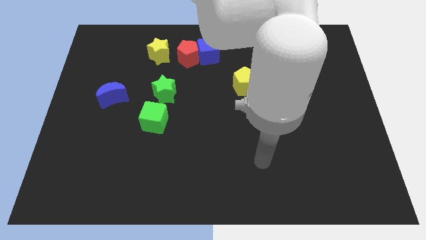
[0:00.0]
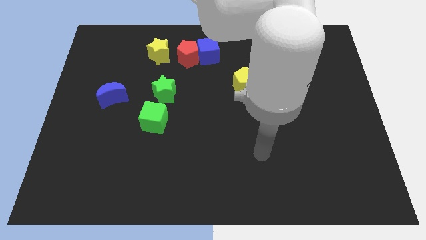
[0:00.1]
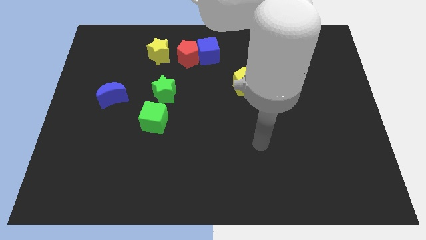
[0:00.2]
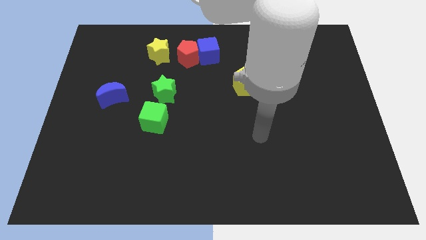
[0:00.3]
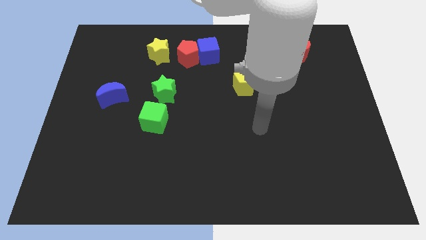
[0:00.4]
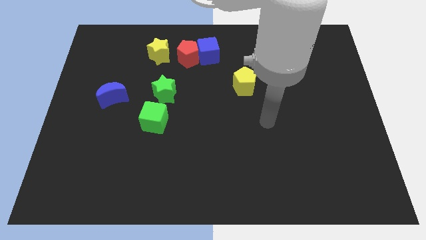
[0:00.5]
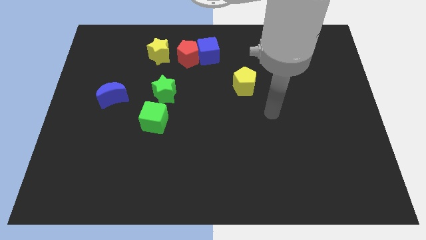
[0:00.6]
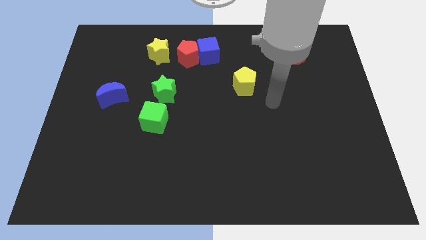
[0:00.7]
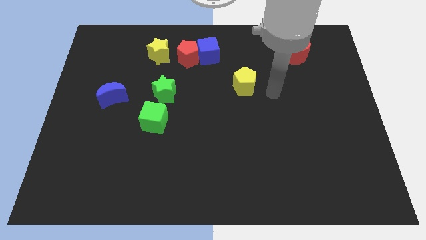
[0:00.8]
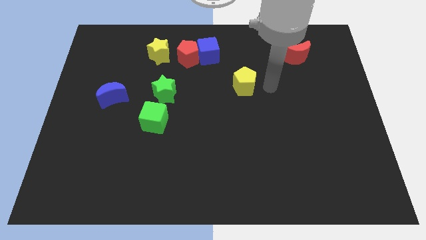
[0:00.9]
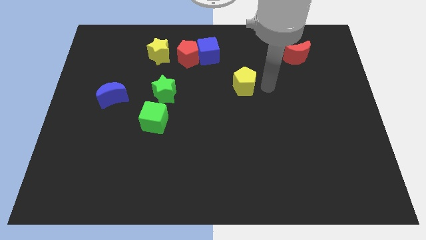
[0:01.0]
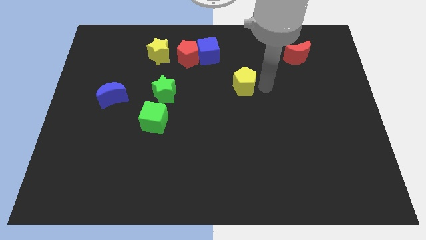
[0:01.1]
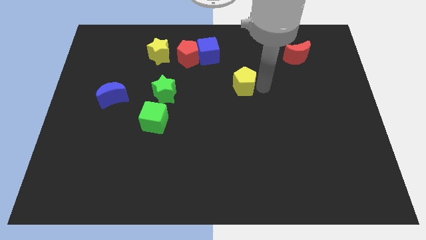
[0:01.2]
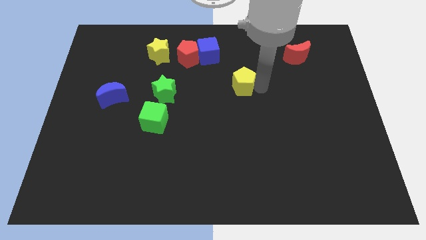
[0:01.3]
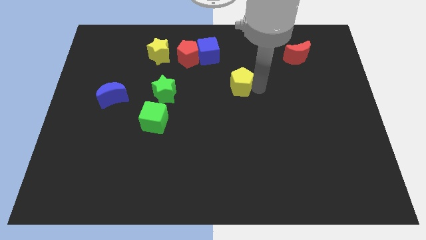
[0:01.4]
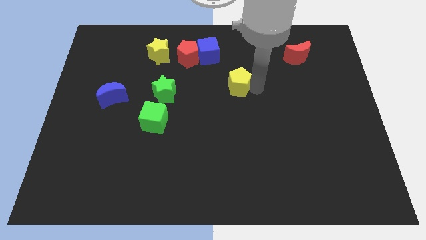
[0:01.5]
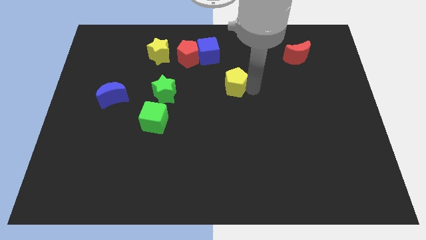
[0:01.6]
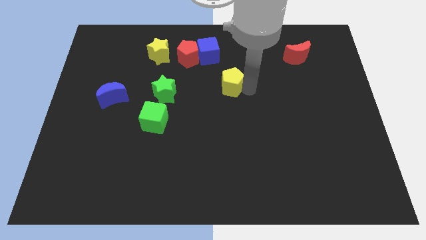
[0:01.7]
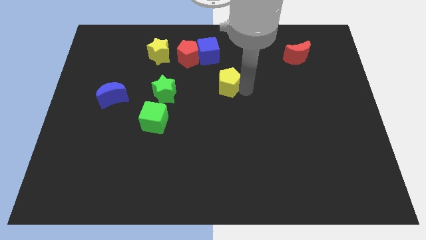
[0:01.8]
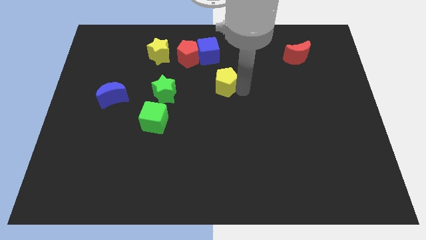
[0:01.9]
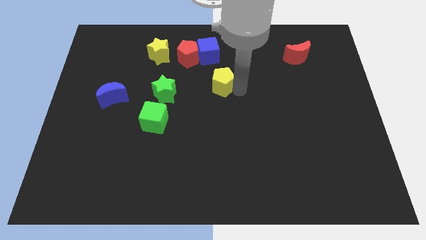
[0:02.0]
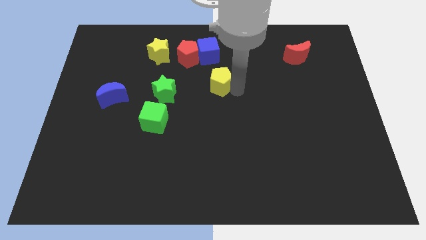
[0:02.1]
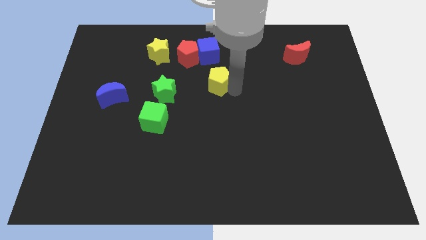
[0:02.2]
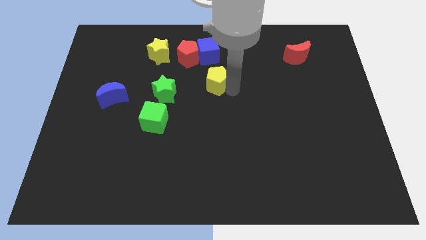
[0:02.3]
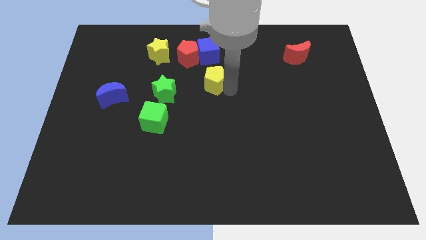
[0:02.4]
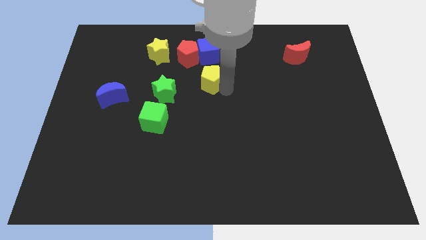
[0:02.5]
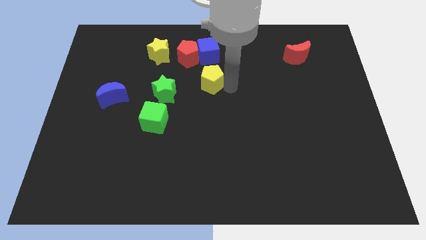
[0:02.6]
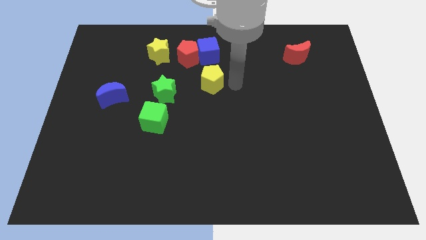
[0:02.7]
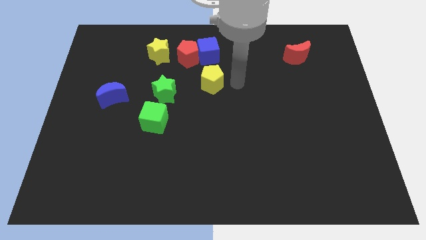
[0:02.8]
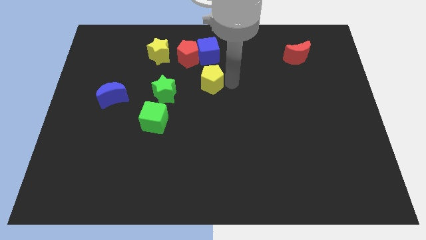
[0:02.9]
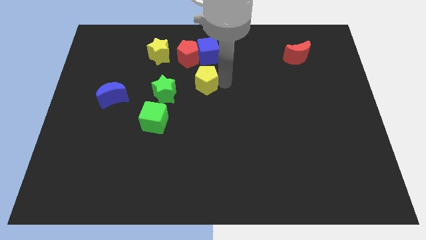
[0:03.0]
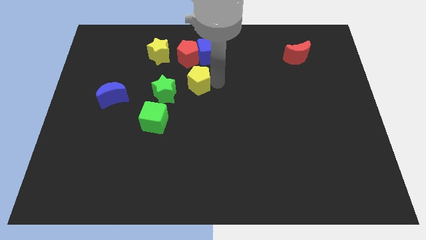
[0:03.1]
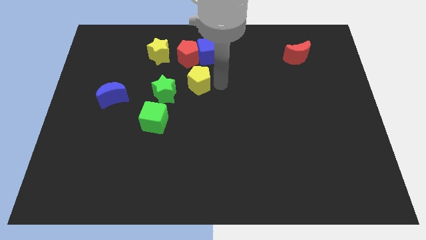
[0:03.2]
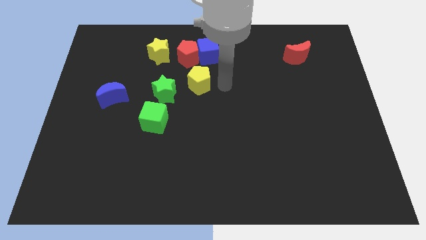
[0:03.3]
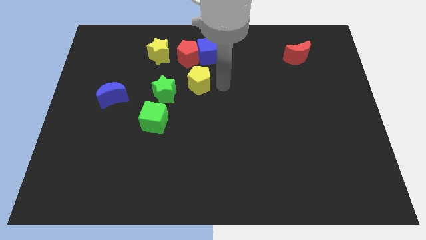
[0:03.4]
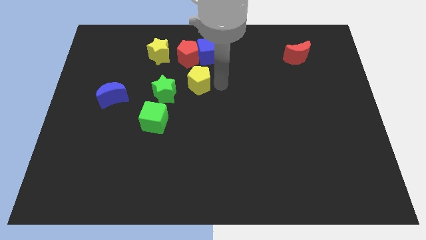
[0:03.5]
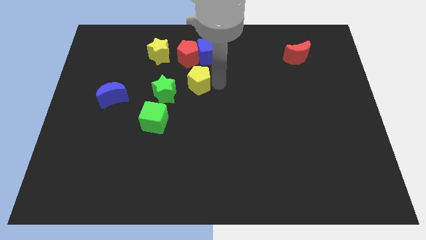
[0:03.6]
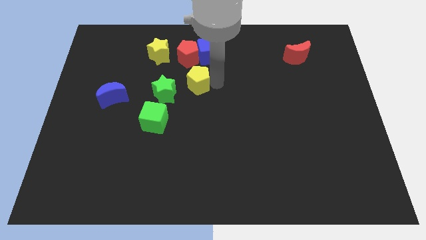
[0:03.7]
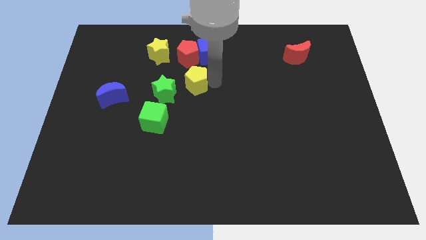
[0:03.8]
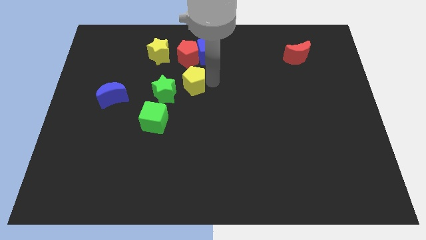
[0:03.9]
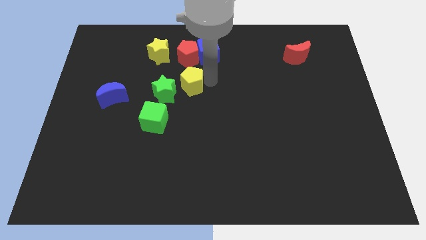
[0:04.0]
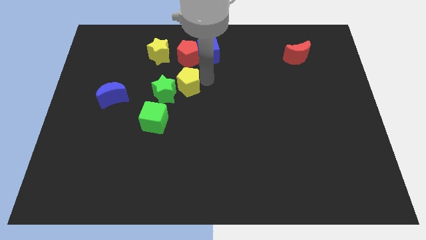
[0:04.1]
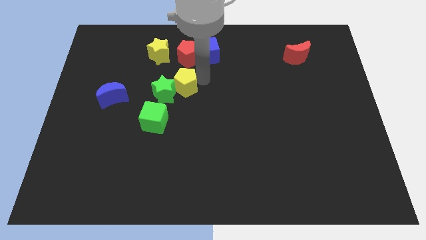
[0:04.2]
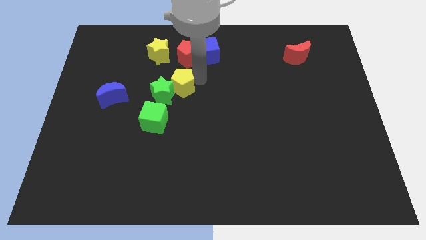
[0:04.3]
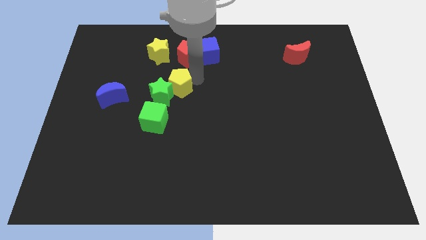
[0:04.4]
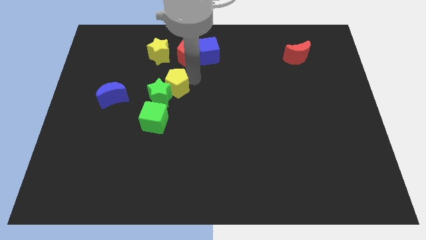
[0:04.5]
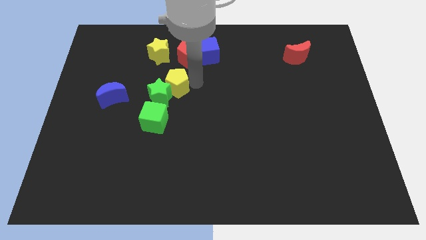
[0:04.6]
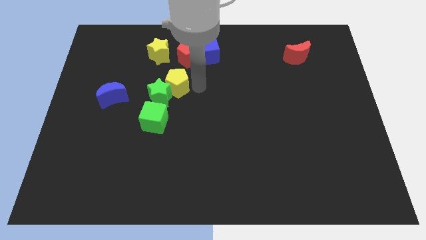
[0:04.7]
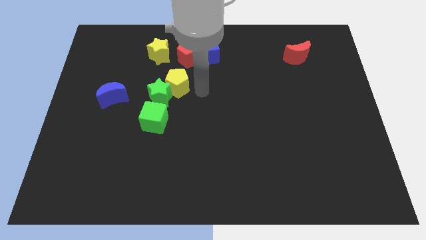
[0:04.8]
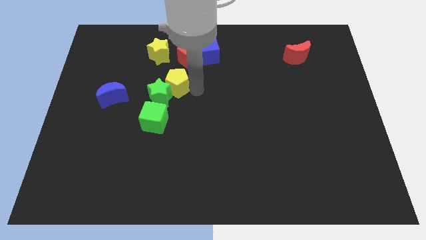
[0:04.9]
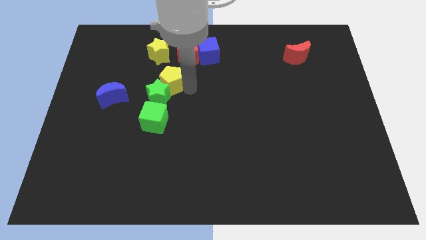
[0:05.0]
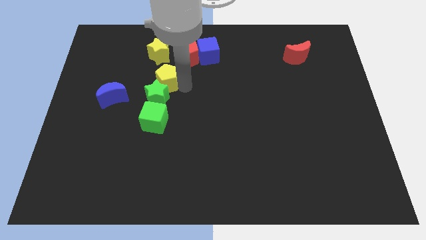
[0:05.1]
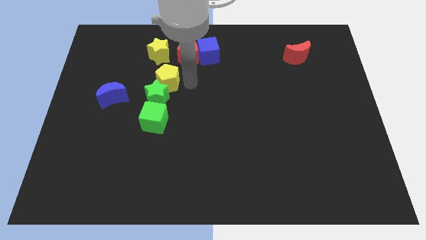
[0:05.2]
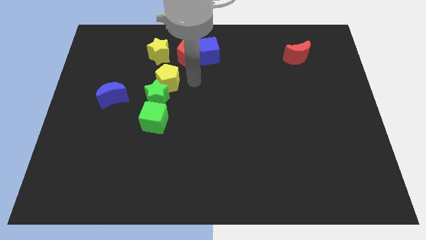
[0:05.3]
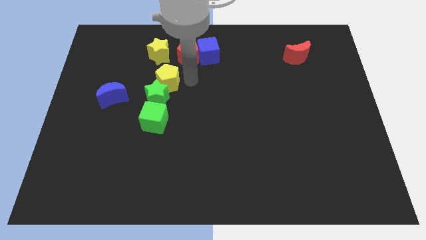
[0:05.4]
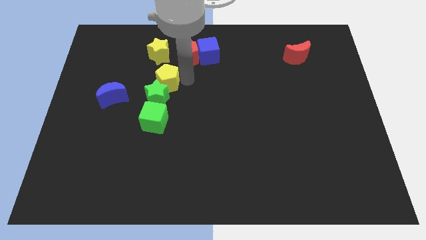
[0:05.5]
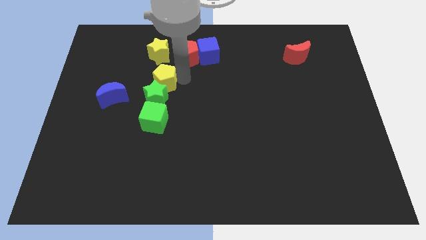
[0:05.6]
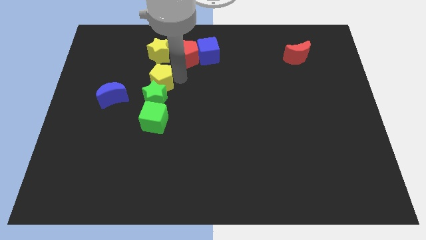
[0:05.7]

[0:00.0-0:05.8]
slide the yellow pentagon left

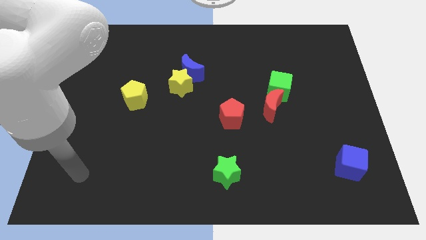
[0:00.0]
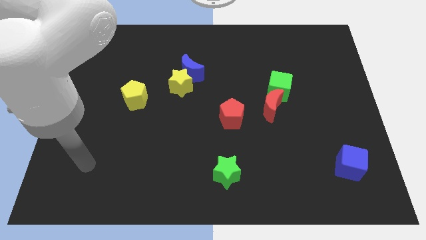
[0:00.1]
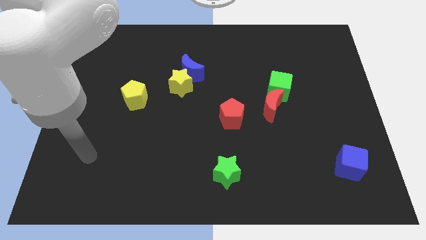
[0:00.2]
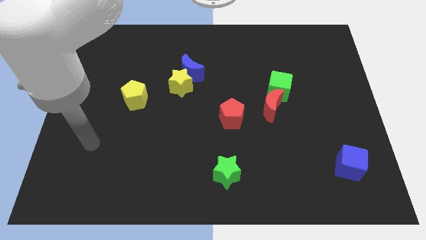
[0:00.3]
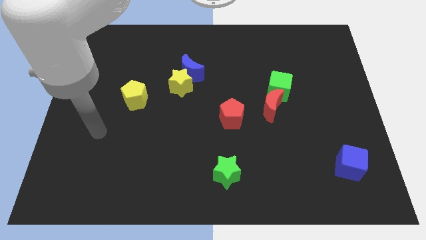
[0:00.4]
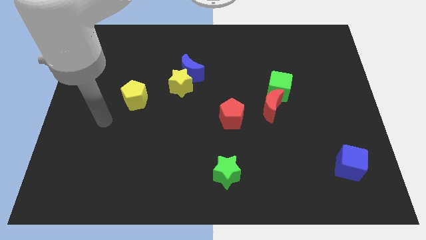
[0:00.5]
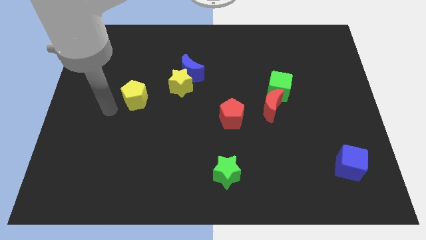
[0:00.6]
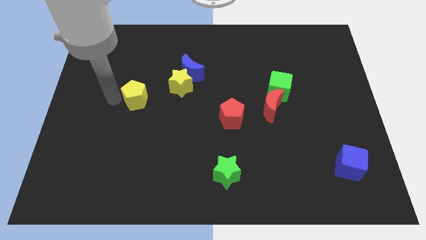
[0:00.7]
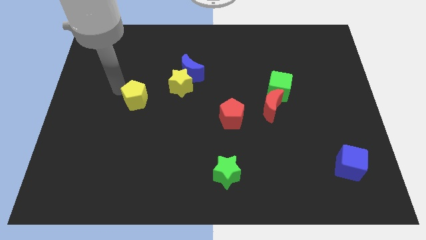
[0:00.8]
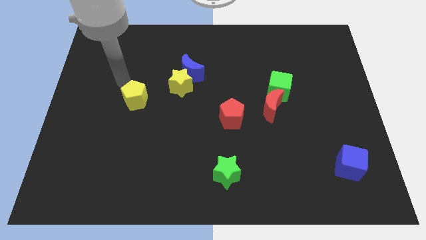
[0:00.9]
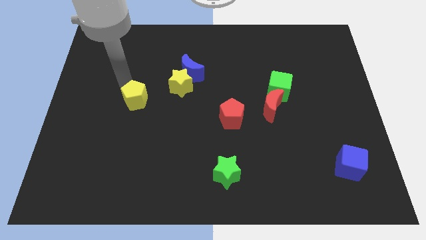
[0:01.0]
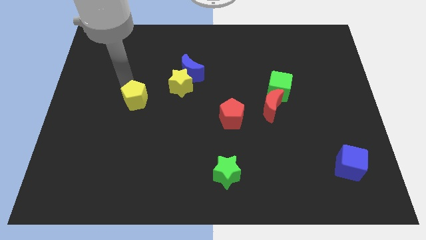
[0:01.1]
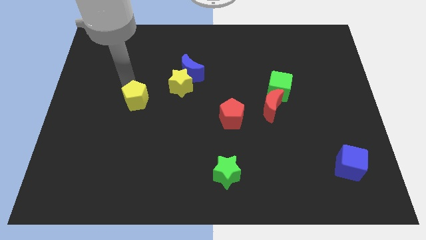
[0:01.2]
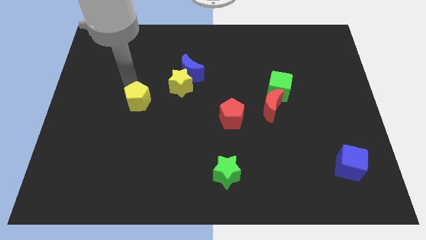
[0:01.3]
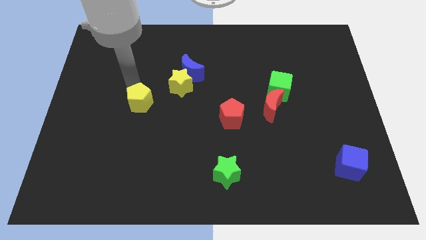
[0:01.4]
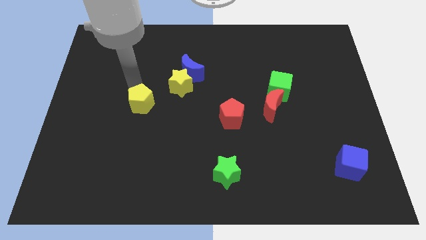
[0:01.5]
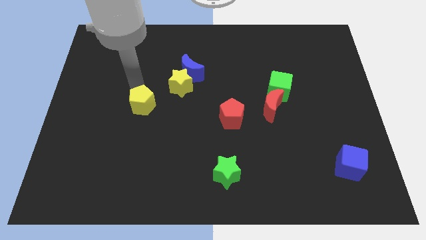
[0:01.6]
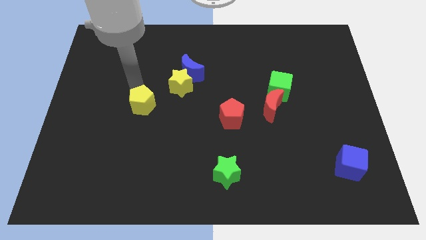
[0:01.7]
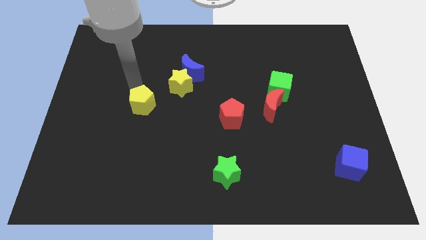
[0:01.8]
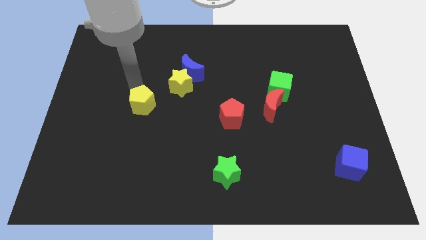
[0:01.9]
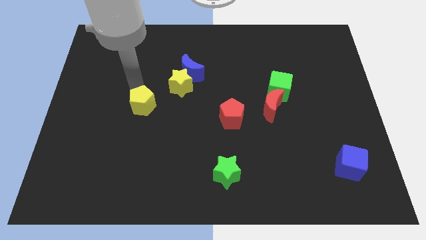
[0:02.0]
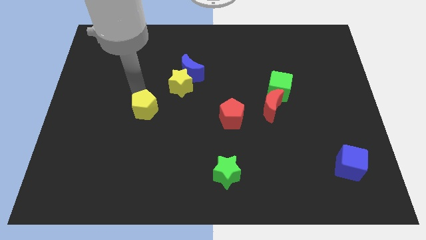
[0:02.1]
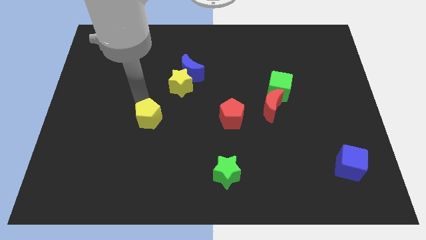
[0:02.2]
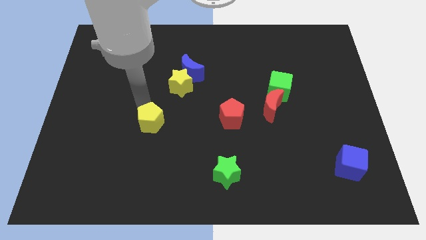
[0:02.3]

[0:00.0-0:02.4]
move the yellow pentagon downwards and right diagonally slightly
